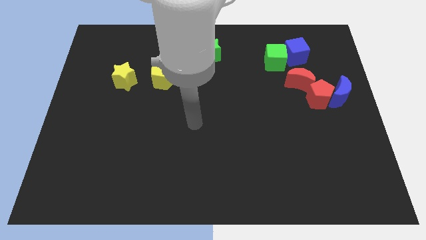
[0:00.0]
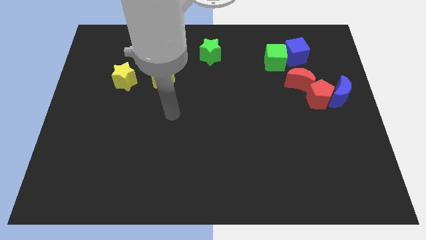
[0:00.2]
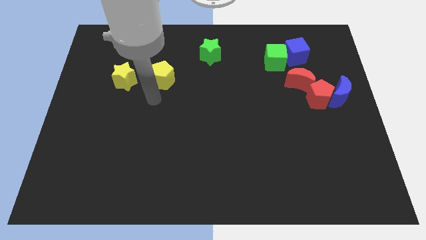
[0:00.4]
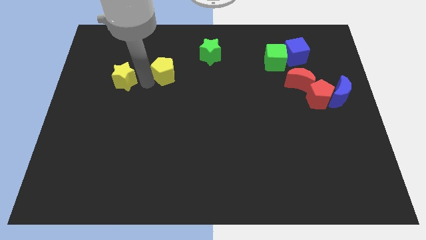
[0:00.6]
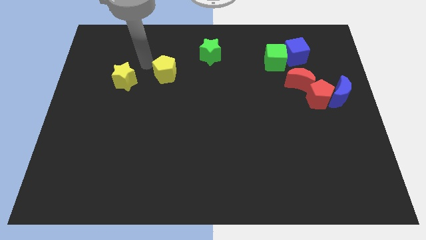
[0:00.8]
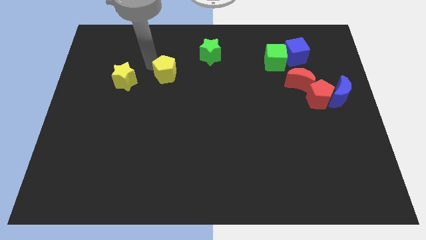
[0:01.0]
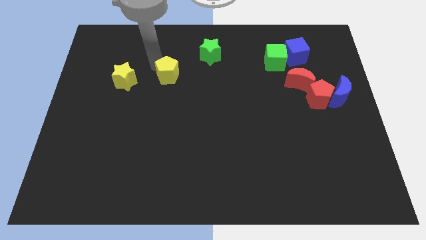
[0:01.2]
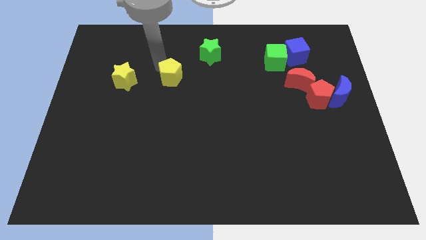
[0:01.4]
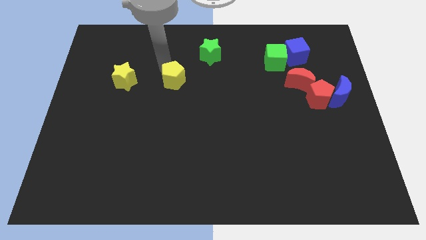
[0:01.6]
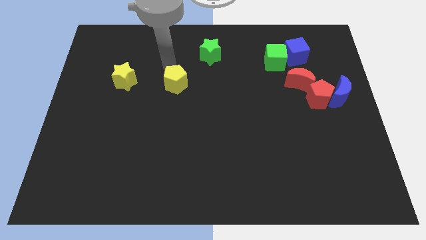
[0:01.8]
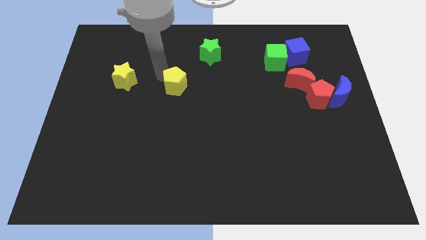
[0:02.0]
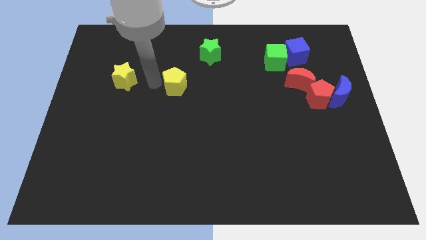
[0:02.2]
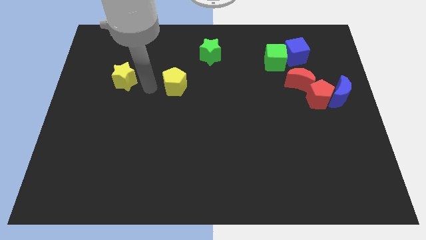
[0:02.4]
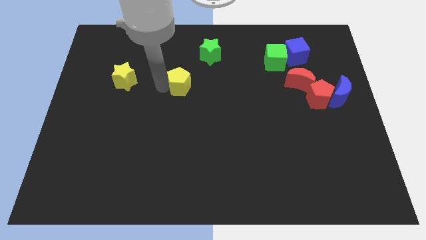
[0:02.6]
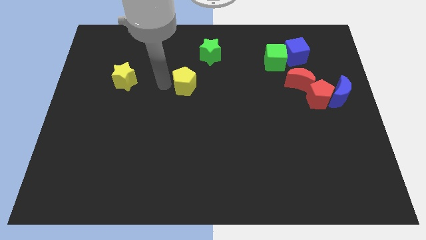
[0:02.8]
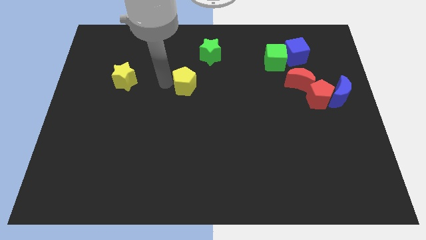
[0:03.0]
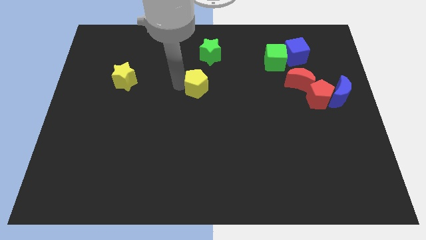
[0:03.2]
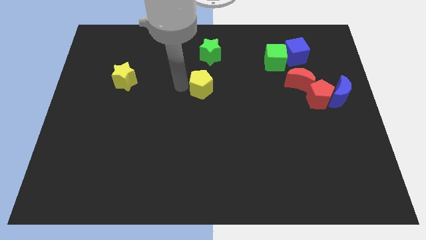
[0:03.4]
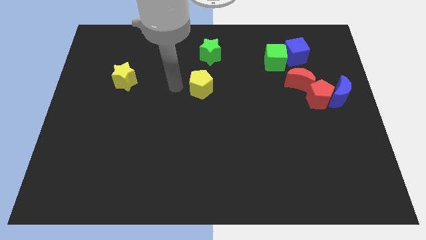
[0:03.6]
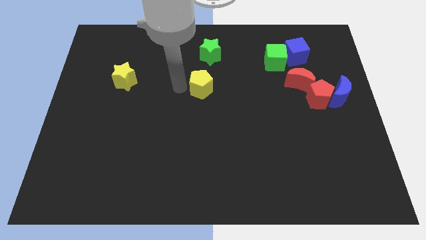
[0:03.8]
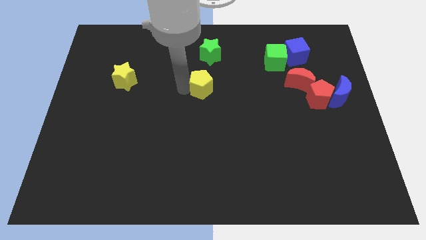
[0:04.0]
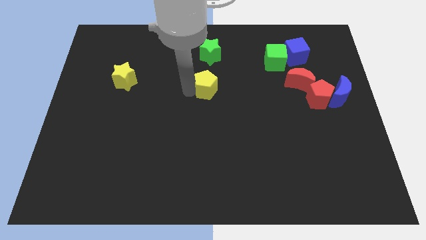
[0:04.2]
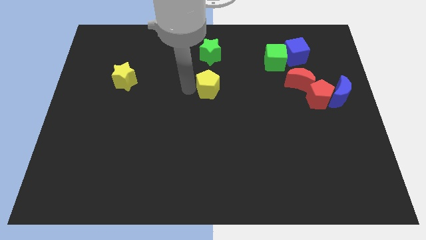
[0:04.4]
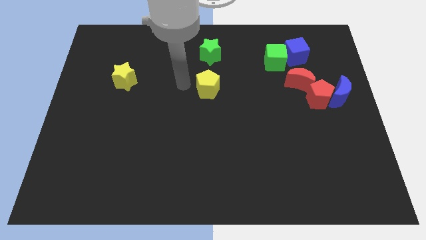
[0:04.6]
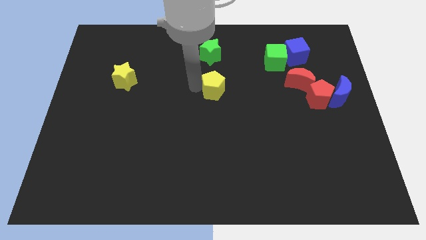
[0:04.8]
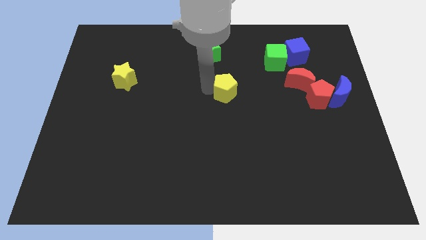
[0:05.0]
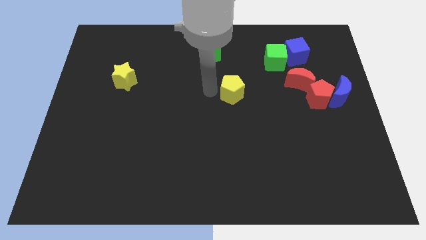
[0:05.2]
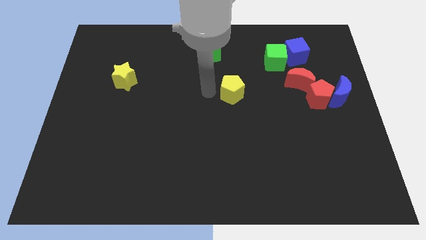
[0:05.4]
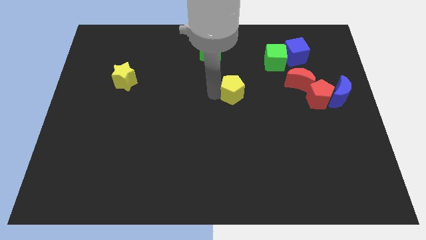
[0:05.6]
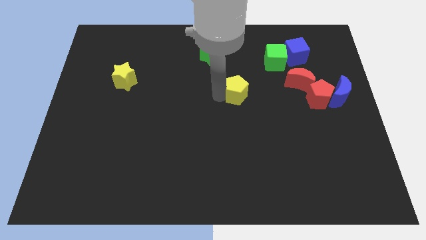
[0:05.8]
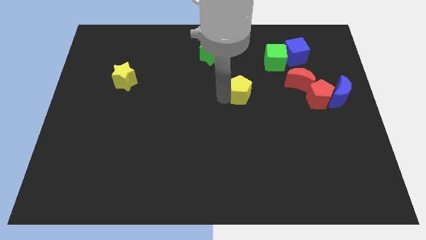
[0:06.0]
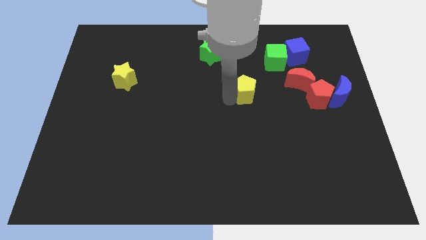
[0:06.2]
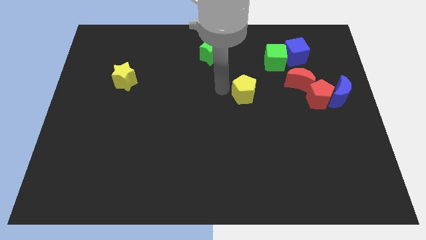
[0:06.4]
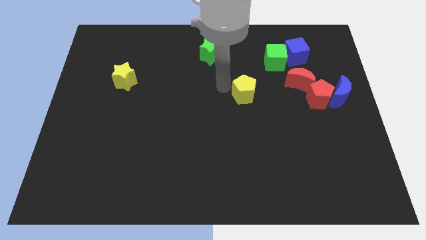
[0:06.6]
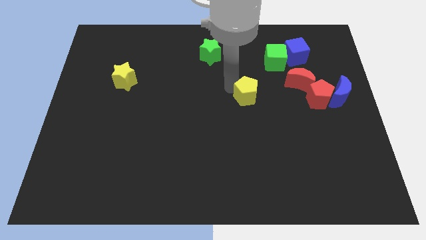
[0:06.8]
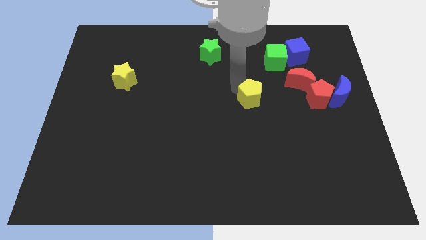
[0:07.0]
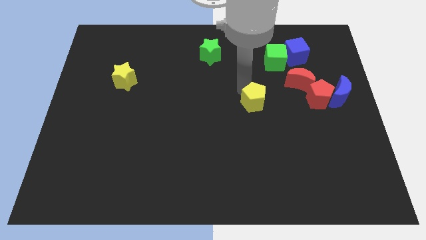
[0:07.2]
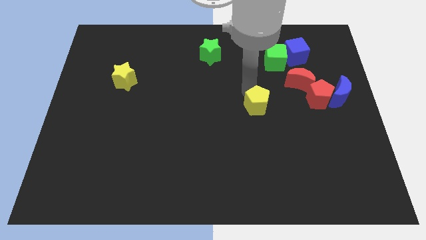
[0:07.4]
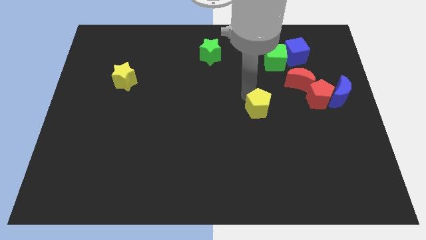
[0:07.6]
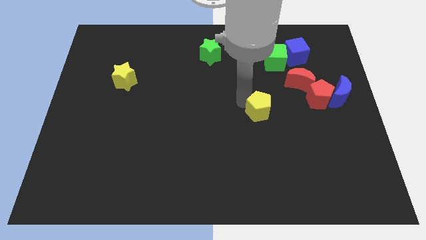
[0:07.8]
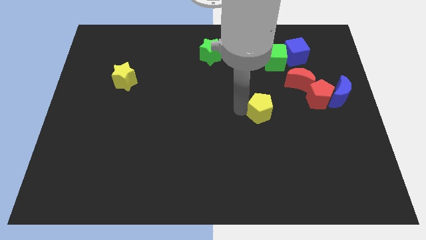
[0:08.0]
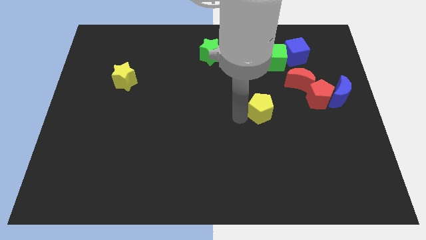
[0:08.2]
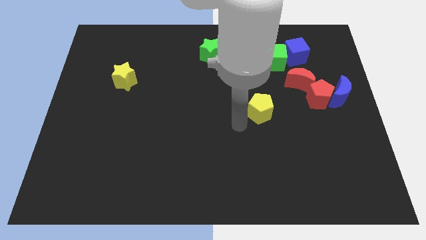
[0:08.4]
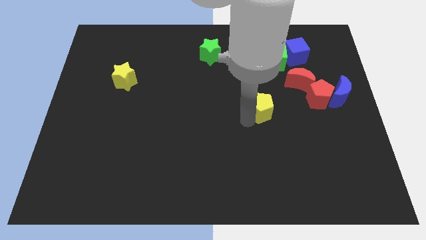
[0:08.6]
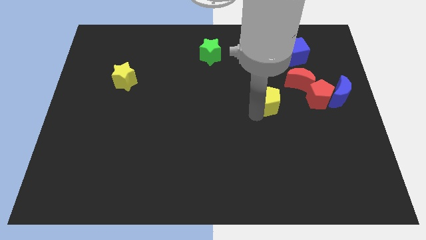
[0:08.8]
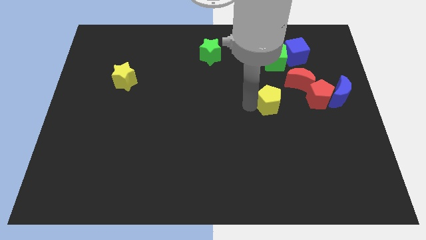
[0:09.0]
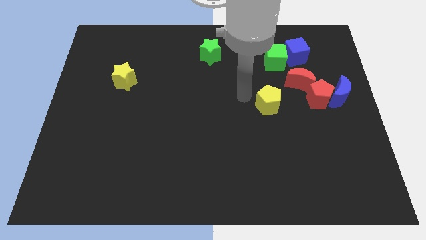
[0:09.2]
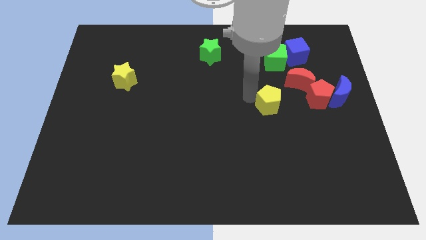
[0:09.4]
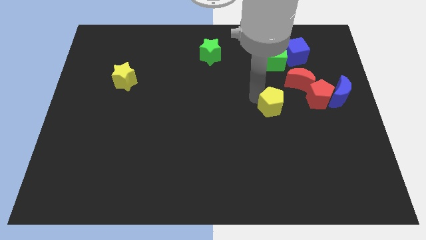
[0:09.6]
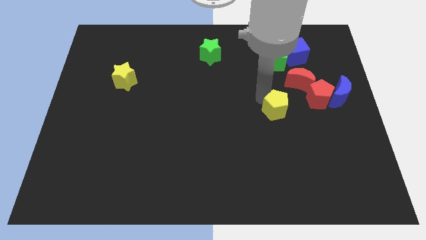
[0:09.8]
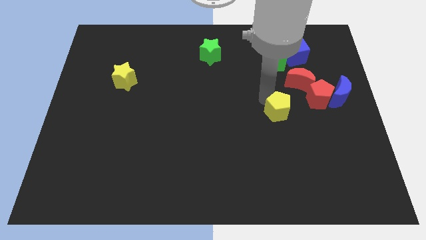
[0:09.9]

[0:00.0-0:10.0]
push the yellow pentagon to the bottom left of the red pentagon

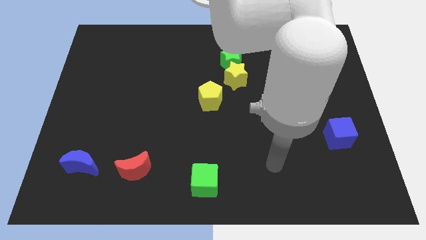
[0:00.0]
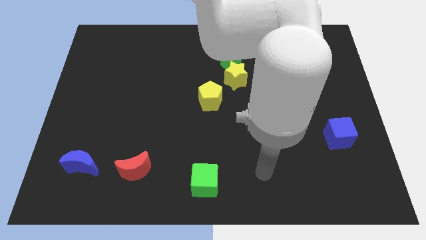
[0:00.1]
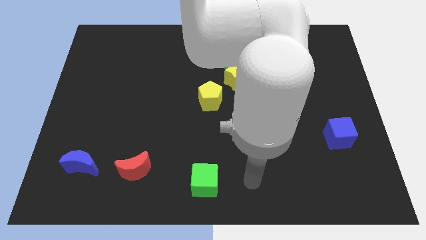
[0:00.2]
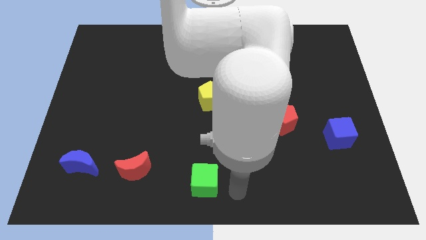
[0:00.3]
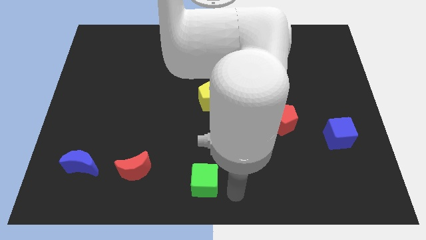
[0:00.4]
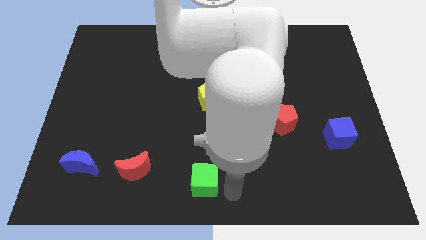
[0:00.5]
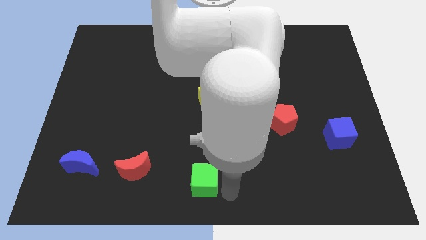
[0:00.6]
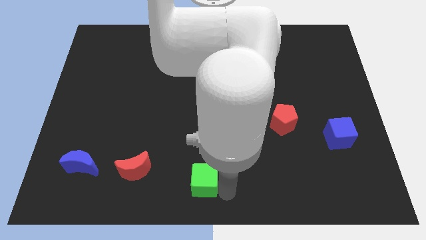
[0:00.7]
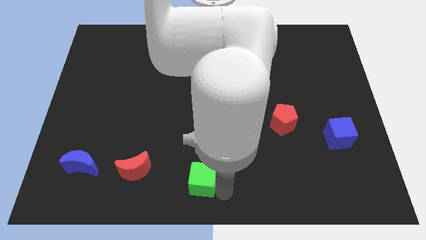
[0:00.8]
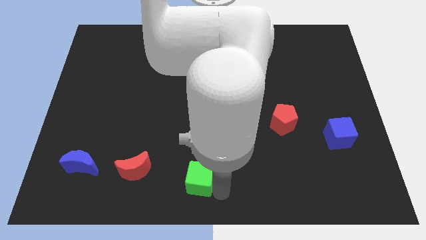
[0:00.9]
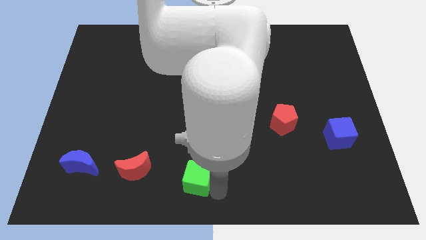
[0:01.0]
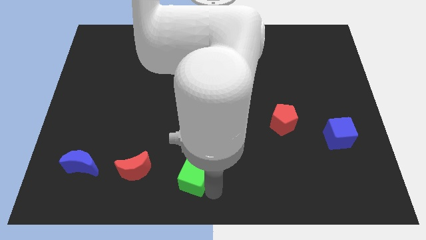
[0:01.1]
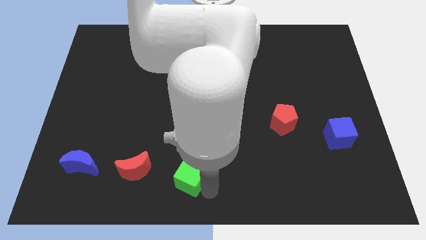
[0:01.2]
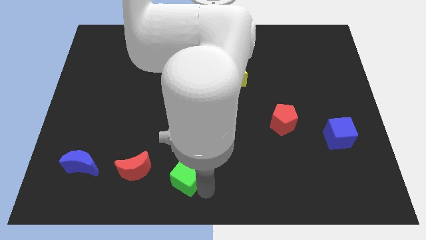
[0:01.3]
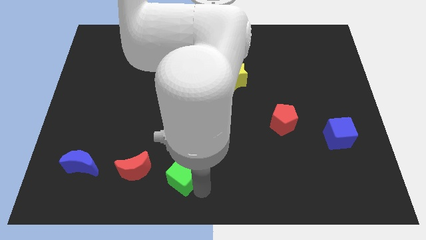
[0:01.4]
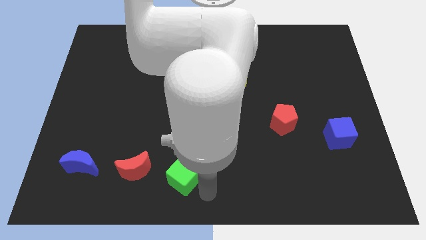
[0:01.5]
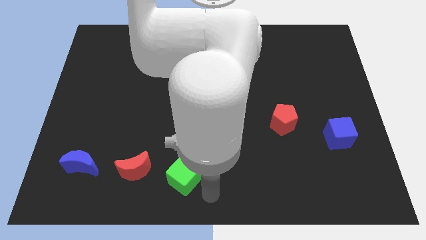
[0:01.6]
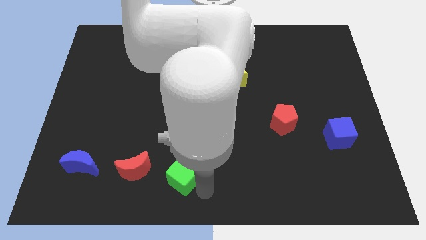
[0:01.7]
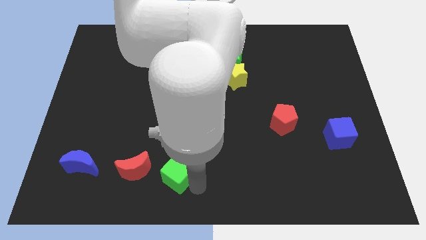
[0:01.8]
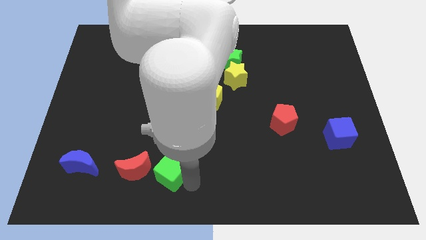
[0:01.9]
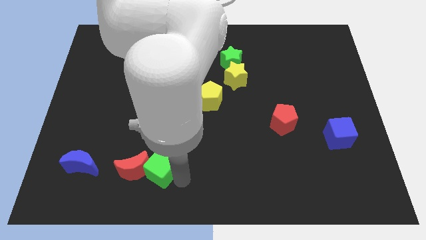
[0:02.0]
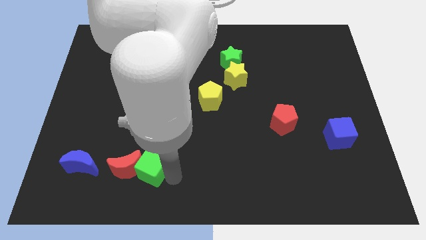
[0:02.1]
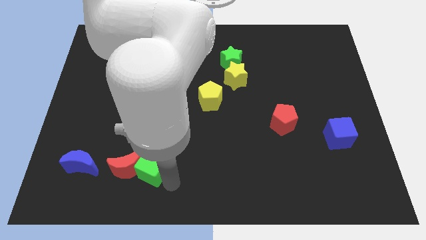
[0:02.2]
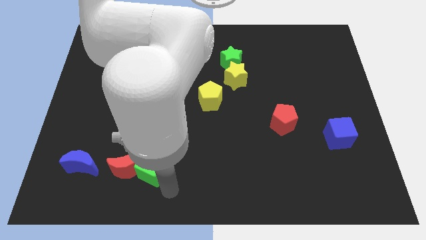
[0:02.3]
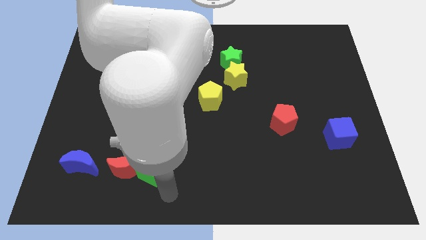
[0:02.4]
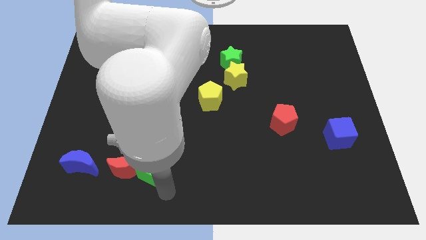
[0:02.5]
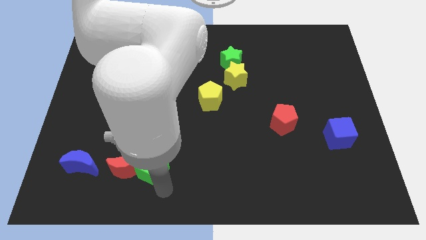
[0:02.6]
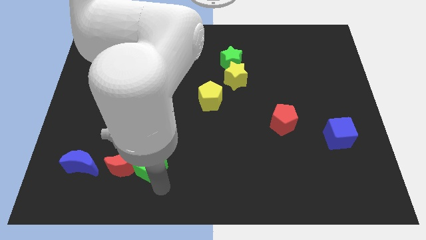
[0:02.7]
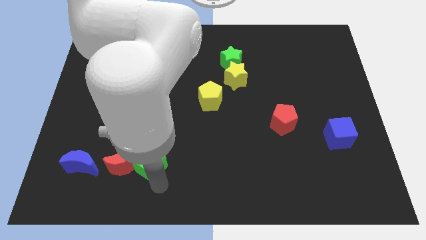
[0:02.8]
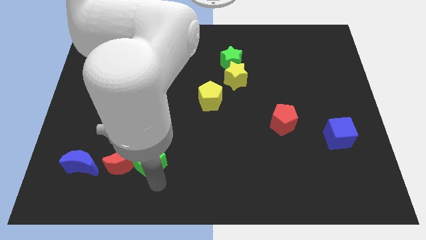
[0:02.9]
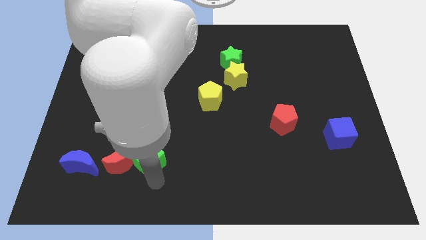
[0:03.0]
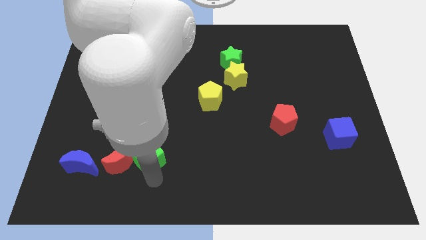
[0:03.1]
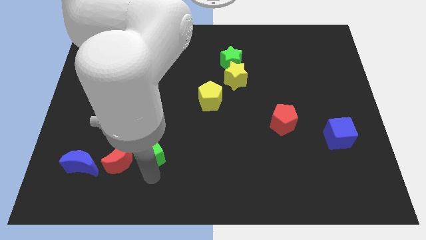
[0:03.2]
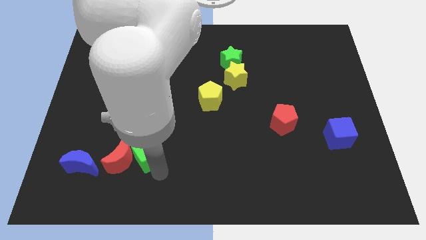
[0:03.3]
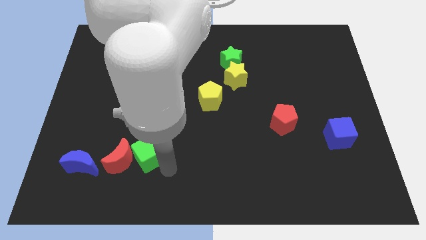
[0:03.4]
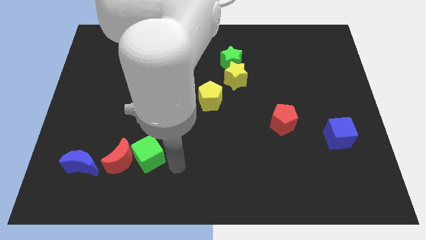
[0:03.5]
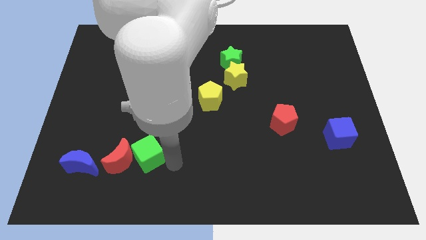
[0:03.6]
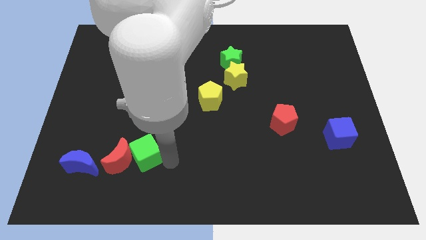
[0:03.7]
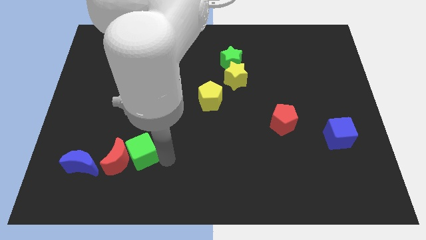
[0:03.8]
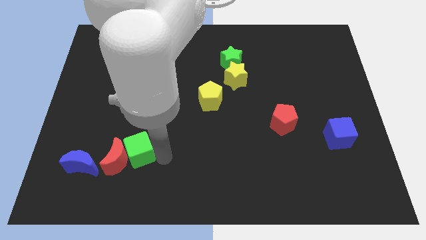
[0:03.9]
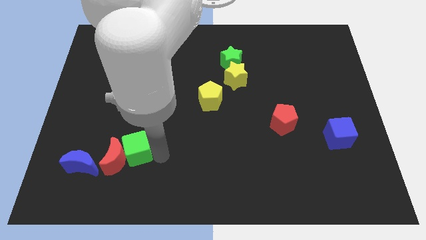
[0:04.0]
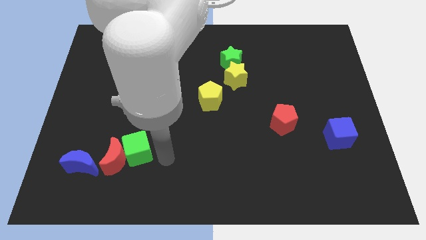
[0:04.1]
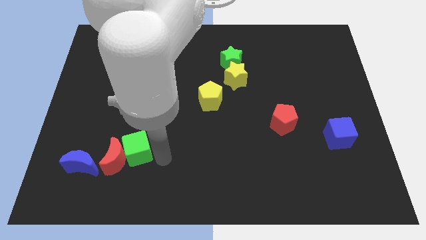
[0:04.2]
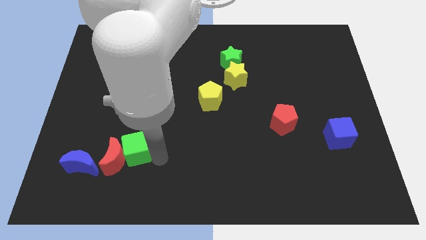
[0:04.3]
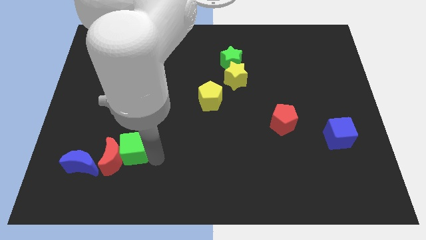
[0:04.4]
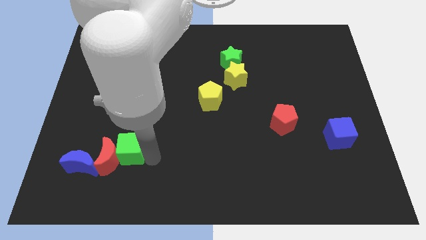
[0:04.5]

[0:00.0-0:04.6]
put the green cube to the top right of the blue moon
